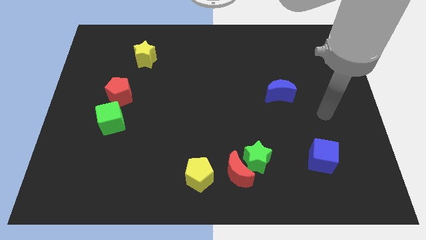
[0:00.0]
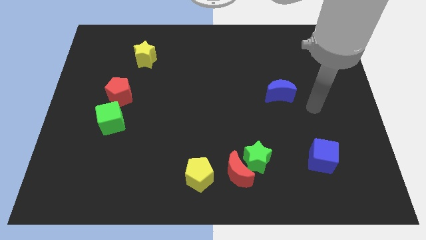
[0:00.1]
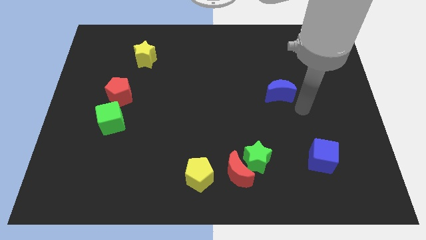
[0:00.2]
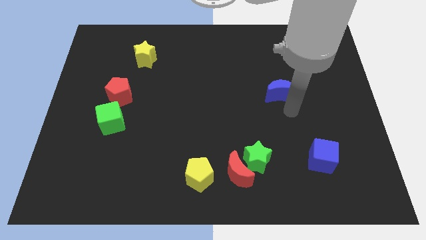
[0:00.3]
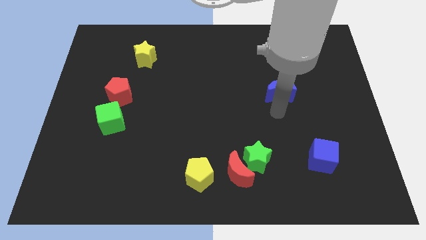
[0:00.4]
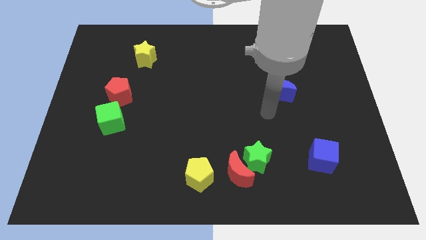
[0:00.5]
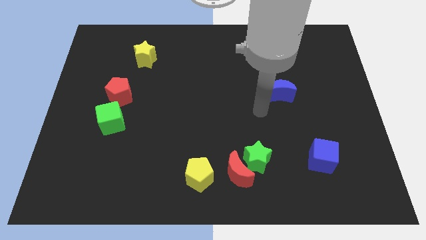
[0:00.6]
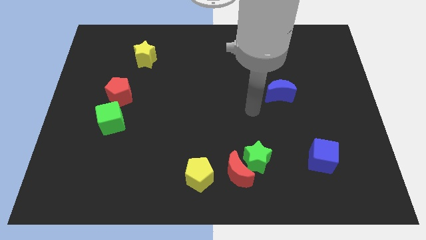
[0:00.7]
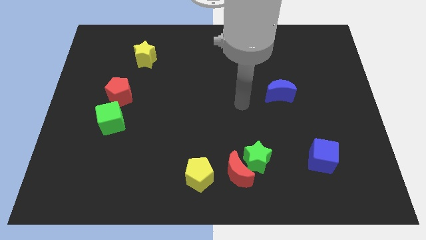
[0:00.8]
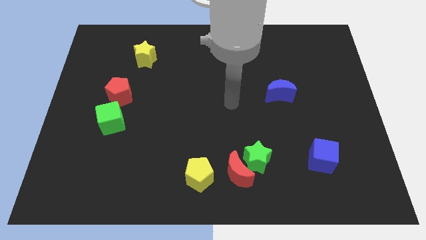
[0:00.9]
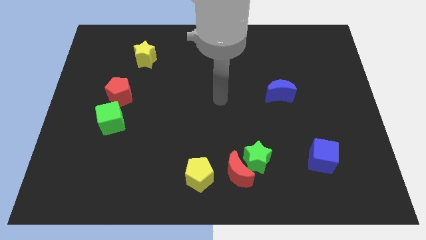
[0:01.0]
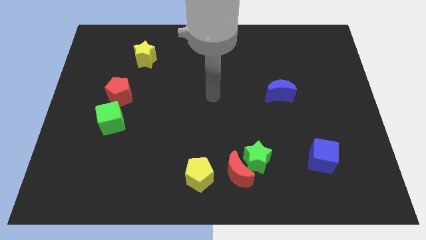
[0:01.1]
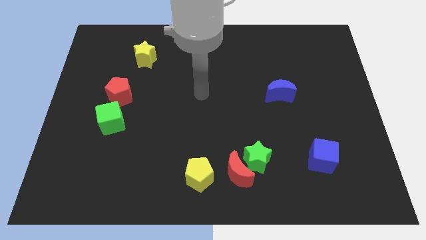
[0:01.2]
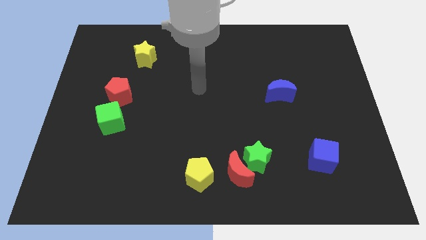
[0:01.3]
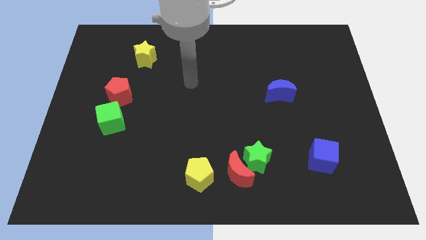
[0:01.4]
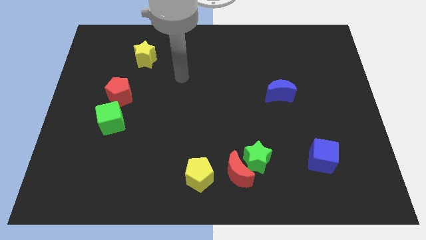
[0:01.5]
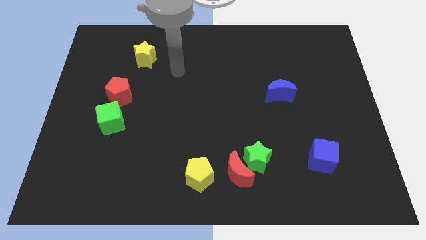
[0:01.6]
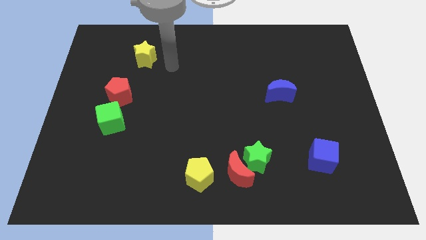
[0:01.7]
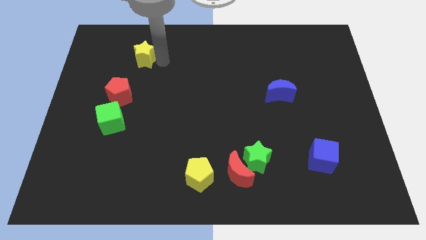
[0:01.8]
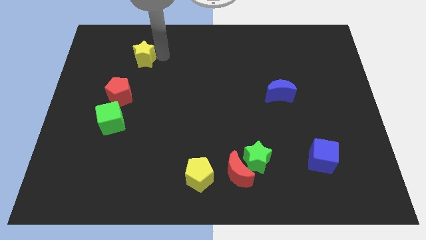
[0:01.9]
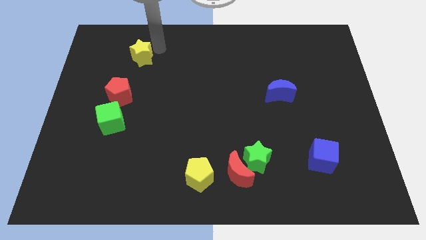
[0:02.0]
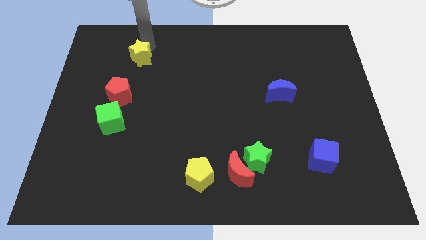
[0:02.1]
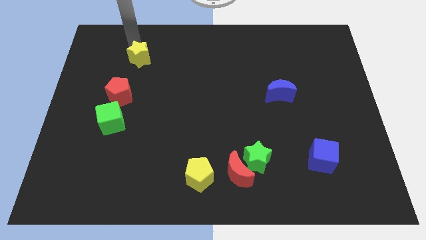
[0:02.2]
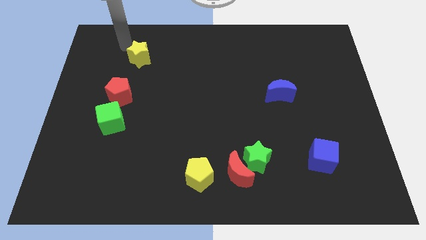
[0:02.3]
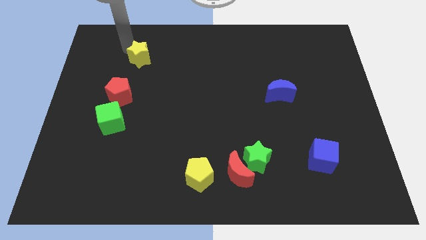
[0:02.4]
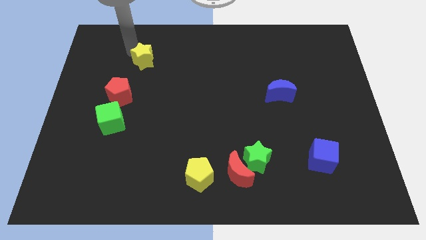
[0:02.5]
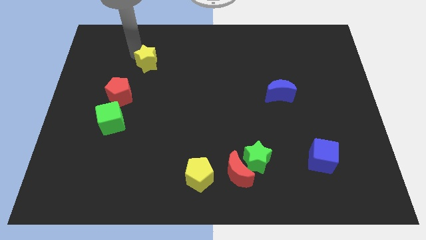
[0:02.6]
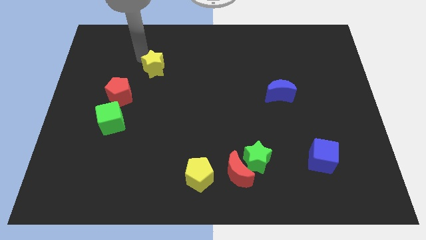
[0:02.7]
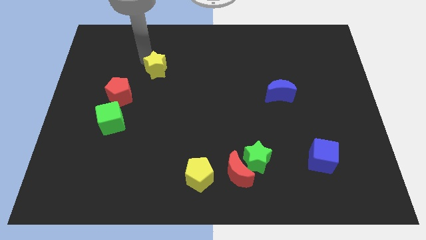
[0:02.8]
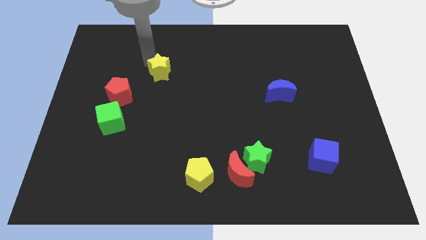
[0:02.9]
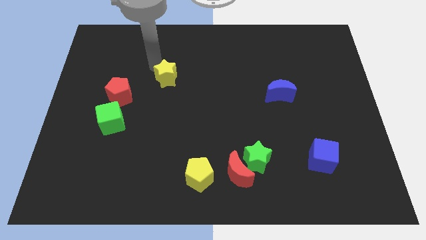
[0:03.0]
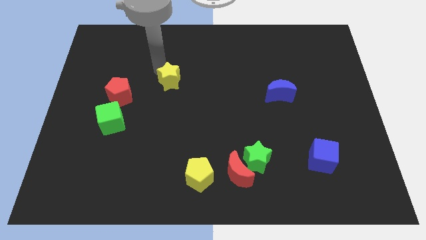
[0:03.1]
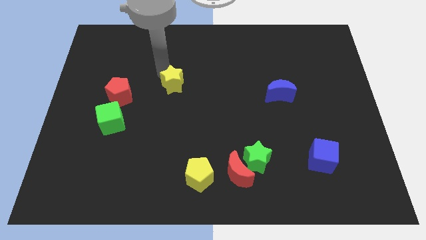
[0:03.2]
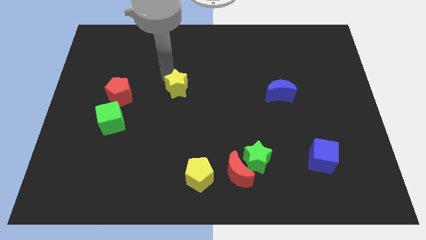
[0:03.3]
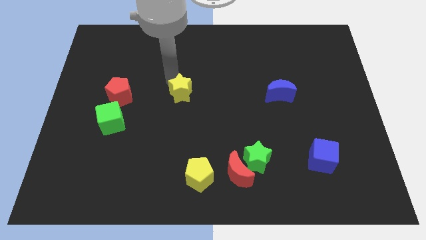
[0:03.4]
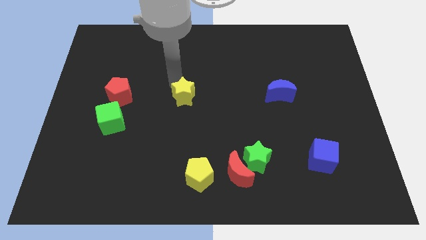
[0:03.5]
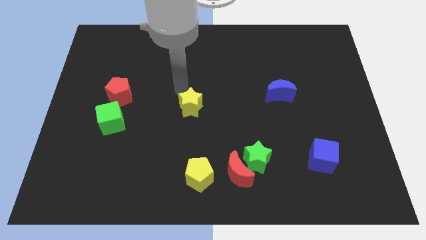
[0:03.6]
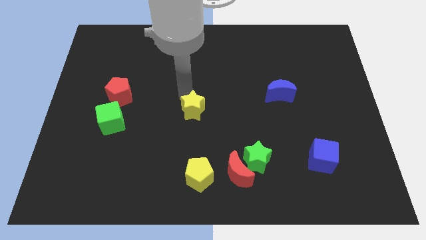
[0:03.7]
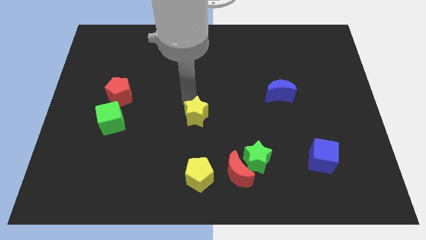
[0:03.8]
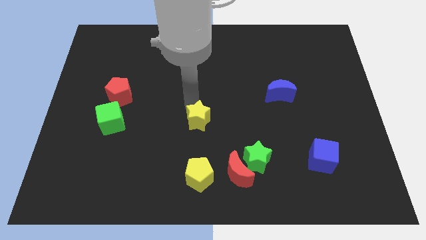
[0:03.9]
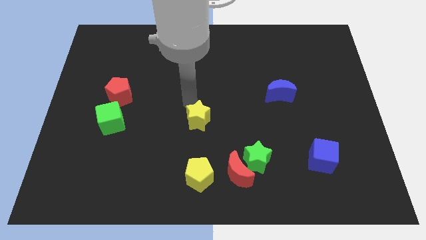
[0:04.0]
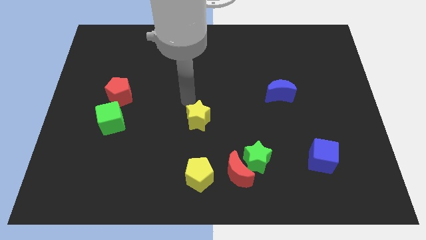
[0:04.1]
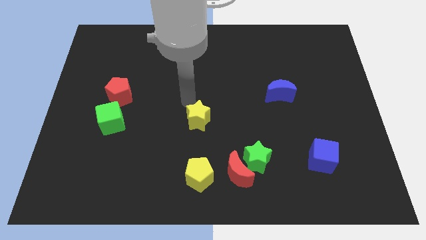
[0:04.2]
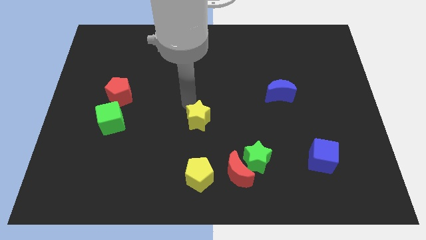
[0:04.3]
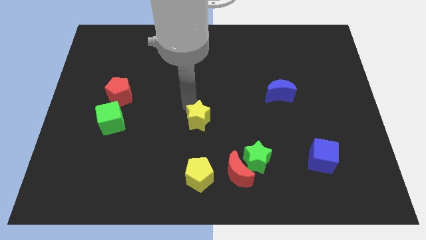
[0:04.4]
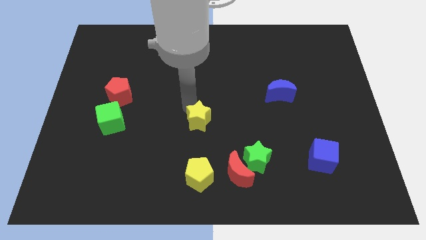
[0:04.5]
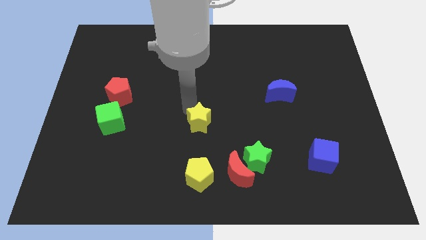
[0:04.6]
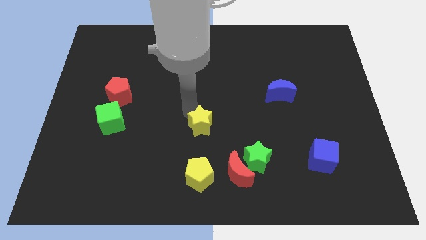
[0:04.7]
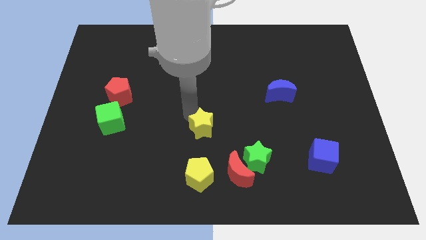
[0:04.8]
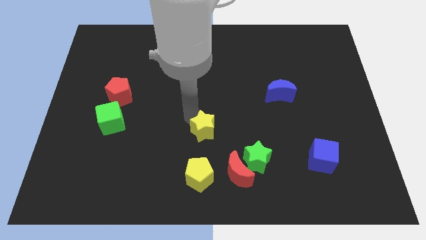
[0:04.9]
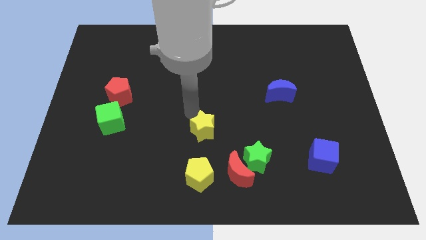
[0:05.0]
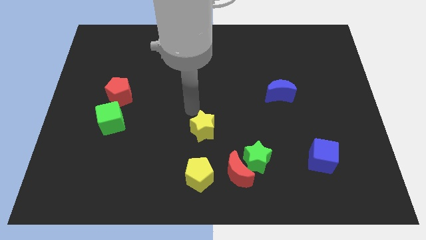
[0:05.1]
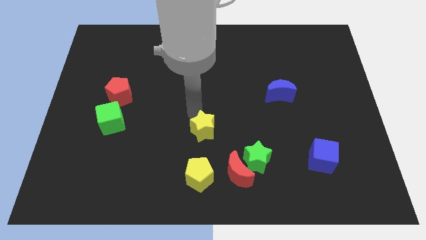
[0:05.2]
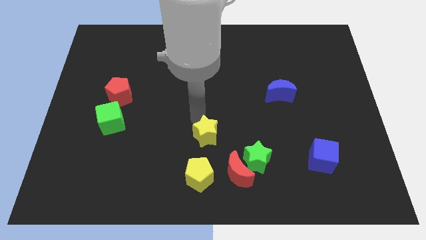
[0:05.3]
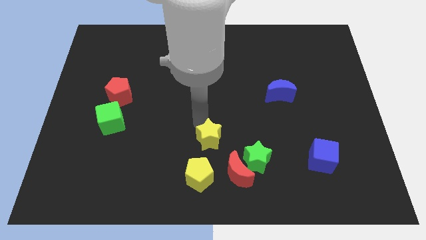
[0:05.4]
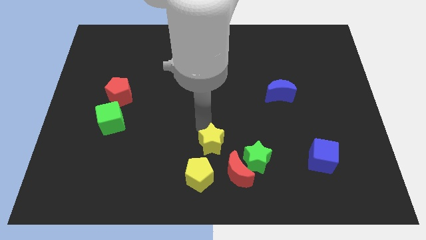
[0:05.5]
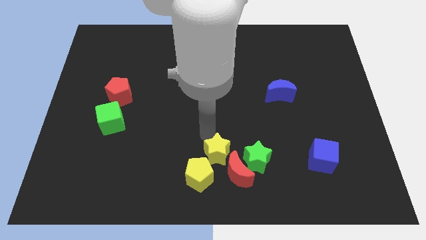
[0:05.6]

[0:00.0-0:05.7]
move the yellow star towards the red moon
